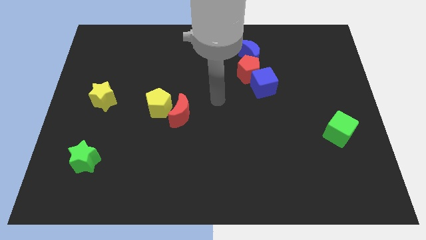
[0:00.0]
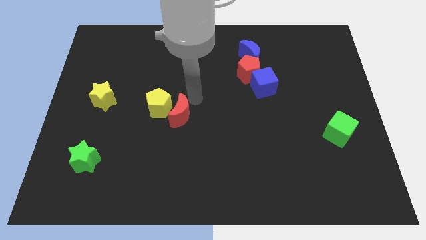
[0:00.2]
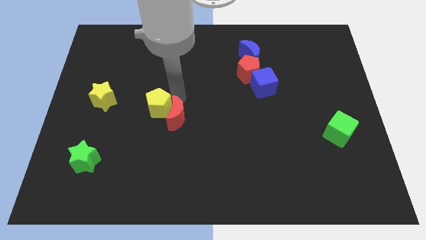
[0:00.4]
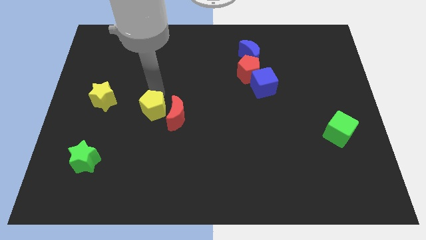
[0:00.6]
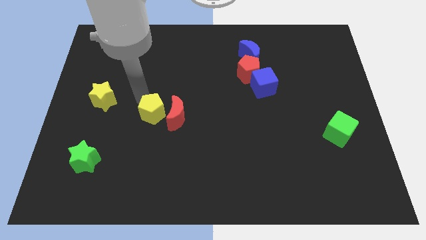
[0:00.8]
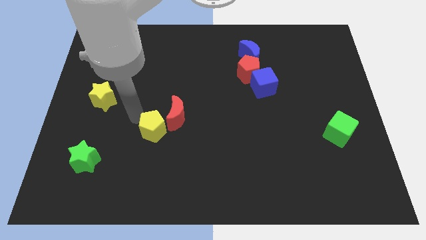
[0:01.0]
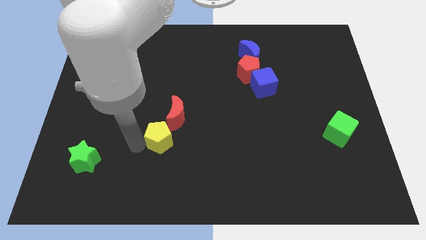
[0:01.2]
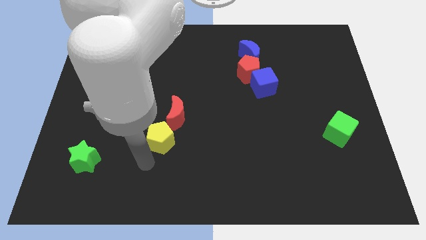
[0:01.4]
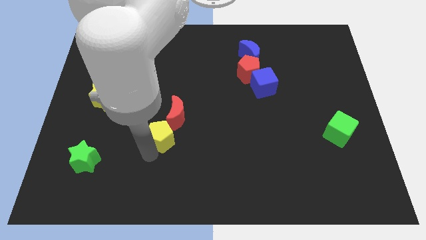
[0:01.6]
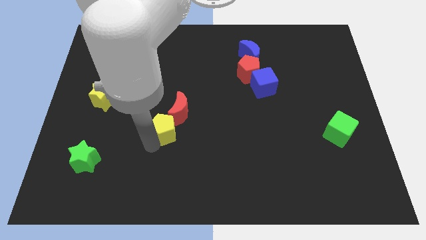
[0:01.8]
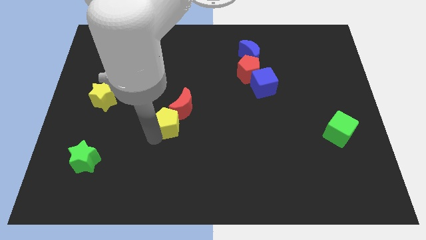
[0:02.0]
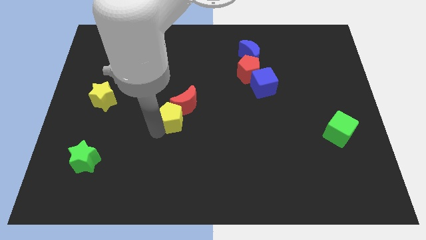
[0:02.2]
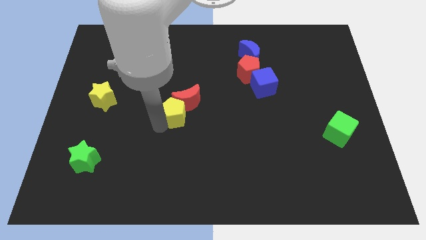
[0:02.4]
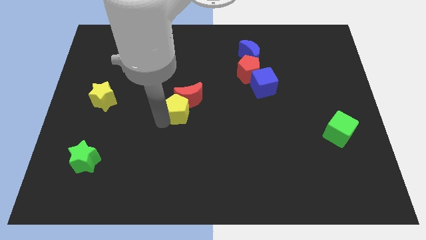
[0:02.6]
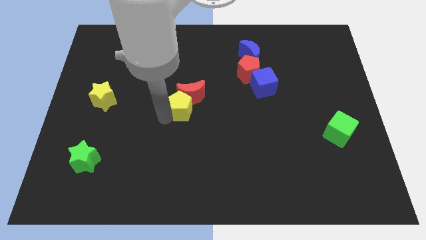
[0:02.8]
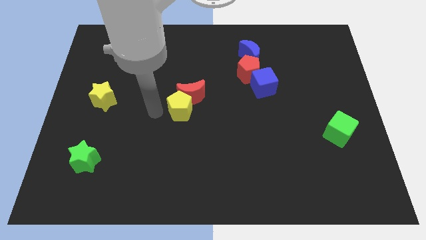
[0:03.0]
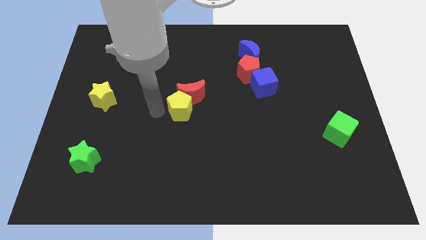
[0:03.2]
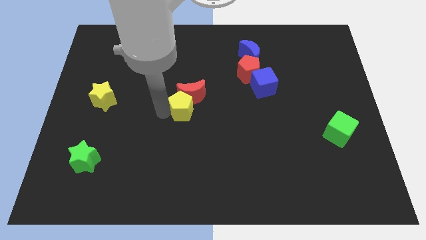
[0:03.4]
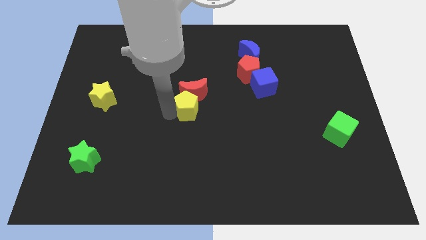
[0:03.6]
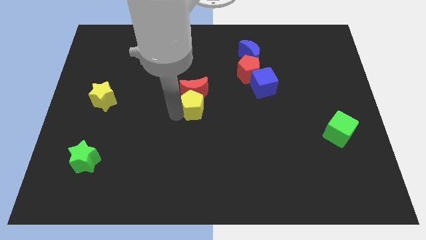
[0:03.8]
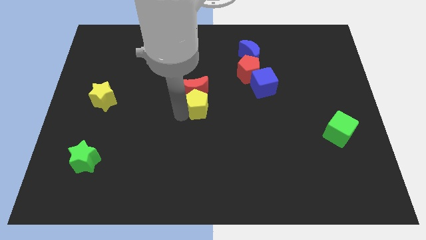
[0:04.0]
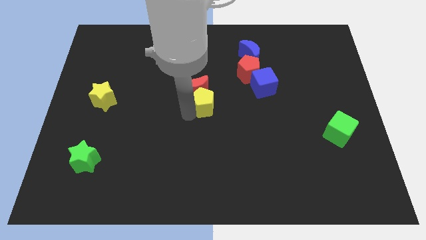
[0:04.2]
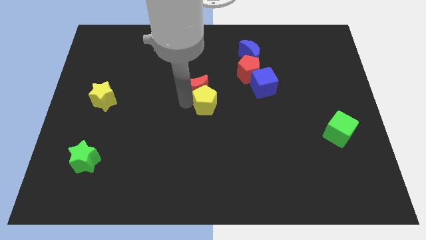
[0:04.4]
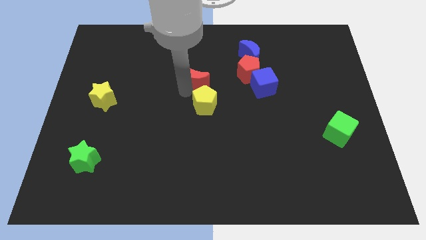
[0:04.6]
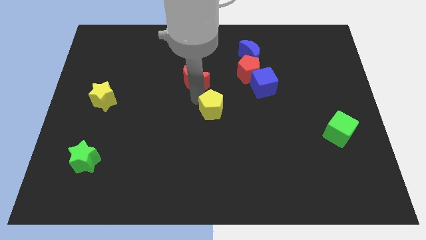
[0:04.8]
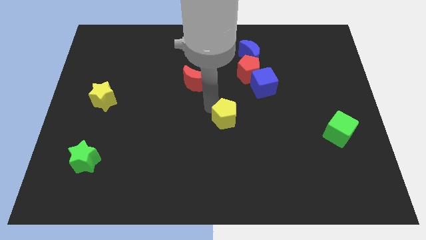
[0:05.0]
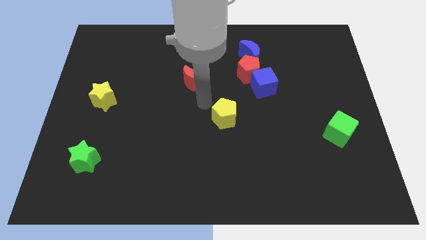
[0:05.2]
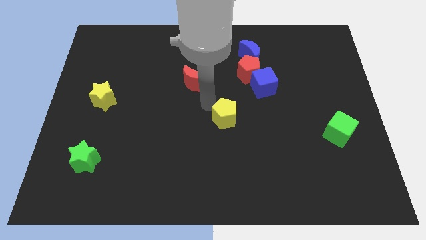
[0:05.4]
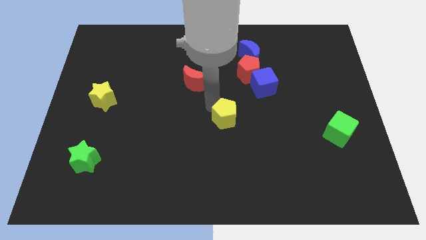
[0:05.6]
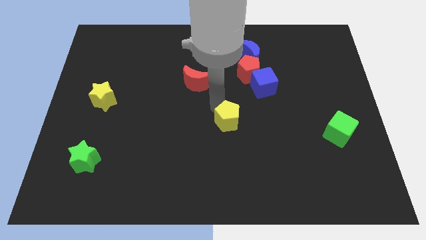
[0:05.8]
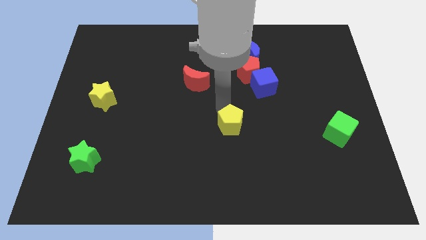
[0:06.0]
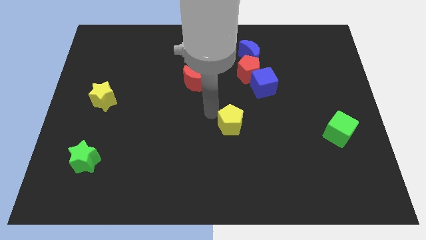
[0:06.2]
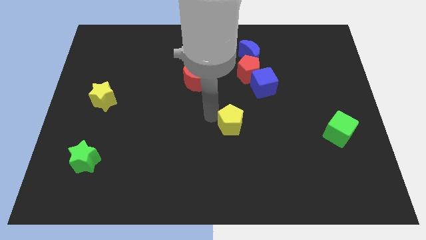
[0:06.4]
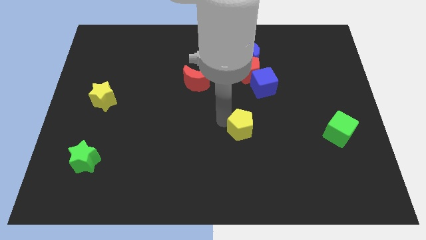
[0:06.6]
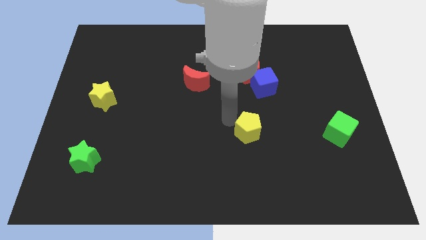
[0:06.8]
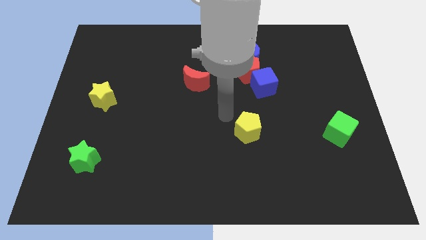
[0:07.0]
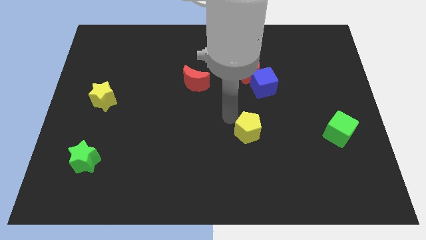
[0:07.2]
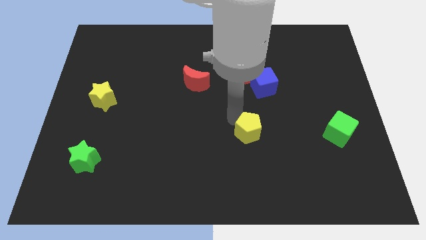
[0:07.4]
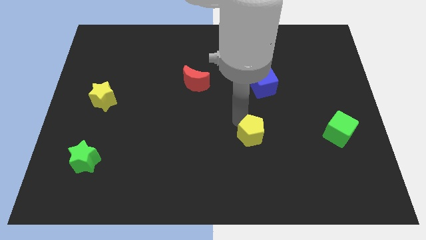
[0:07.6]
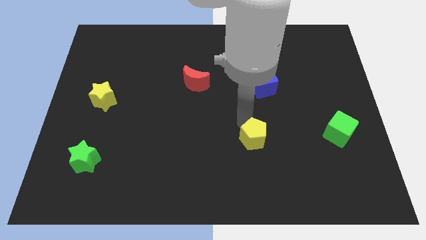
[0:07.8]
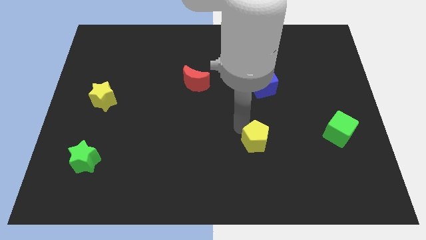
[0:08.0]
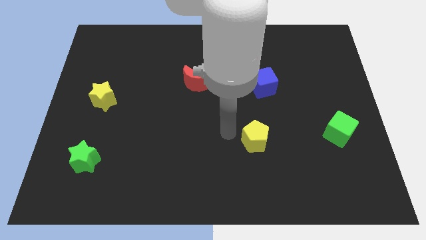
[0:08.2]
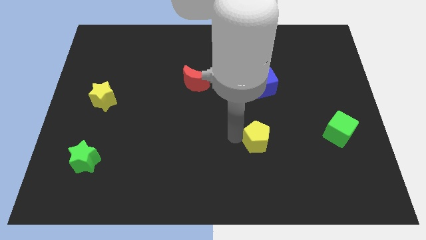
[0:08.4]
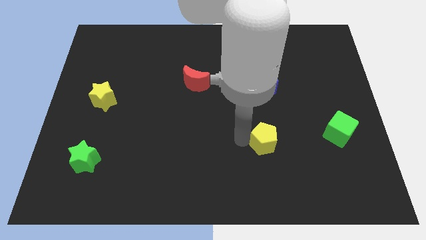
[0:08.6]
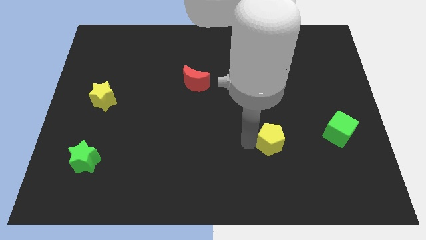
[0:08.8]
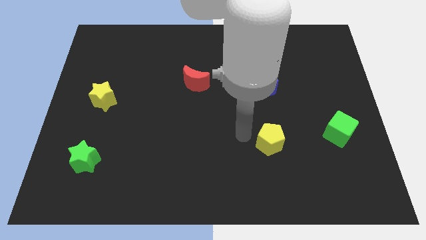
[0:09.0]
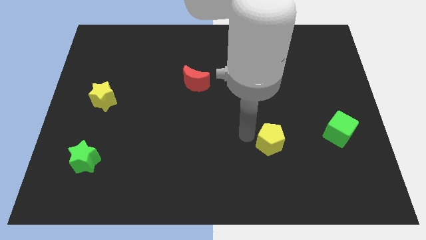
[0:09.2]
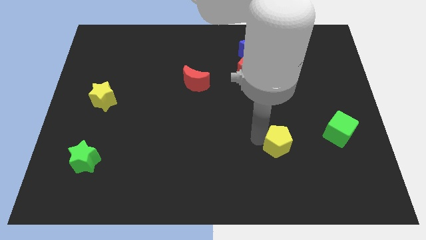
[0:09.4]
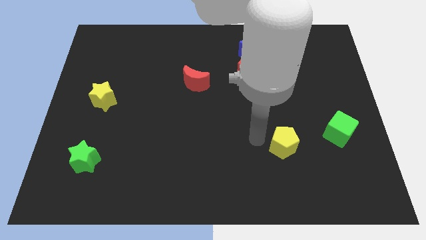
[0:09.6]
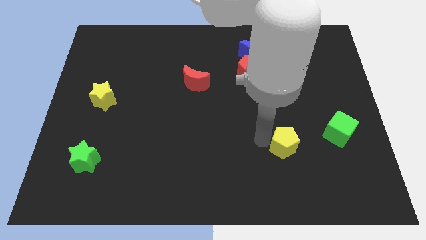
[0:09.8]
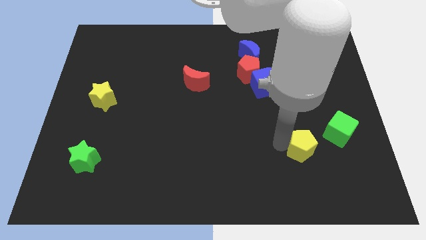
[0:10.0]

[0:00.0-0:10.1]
move the yellow pentagon to the bottom left side of the green cube

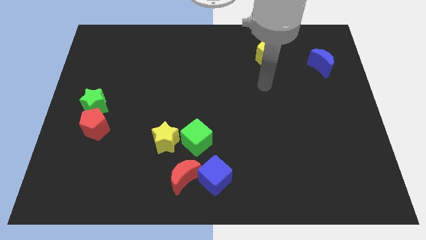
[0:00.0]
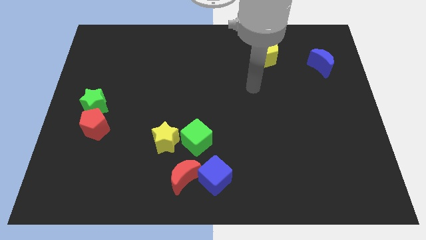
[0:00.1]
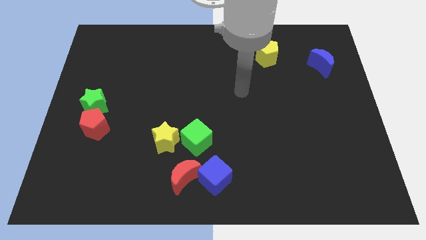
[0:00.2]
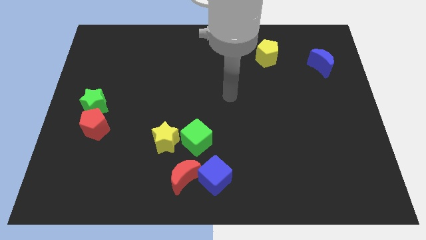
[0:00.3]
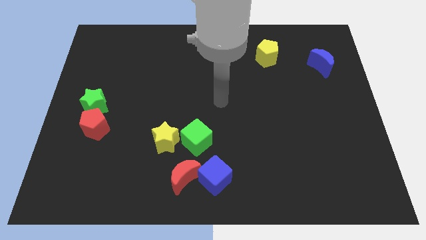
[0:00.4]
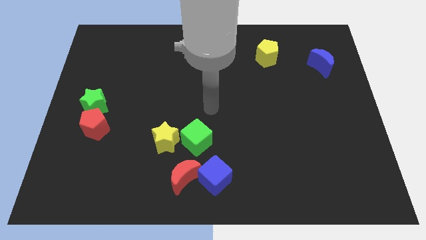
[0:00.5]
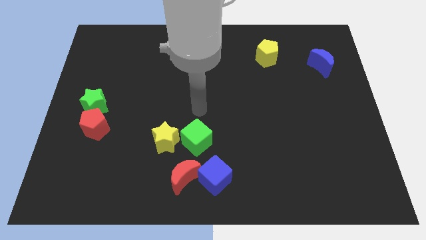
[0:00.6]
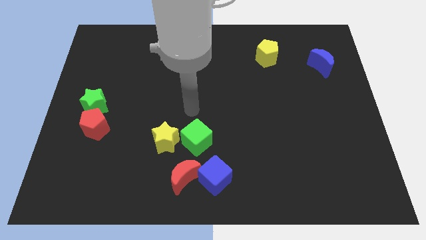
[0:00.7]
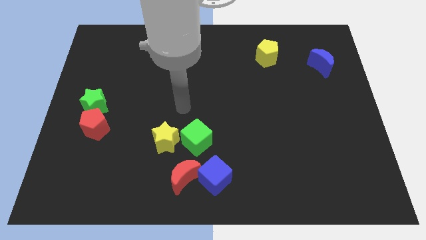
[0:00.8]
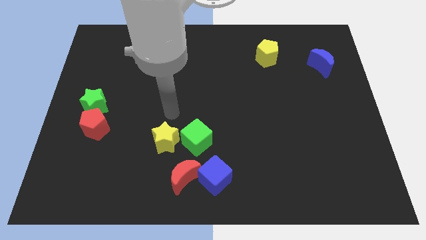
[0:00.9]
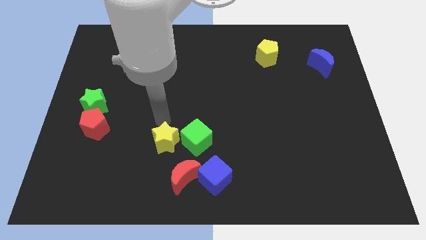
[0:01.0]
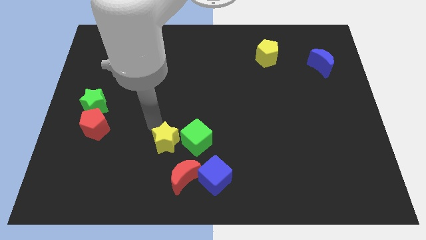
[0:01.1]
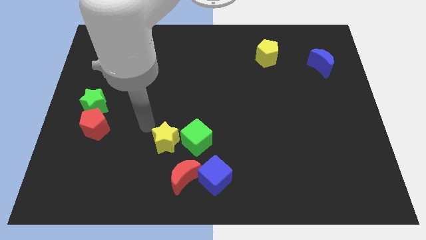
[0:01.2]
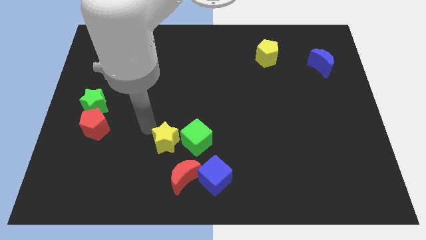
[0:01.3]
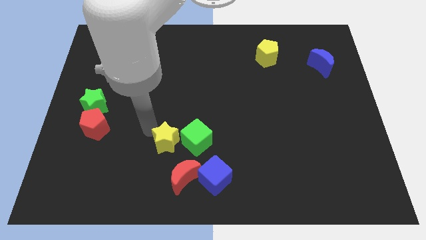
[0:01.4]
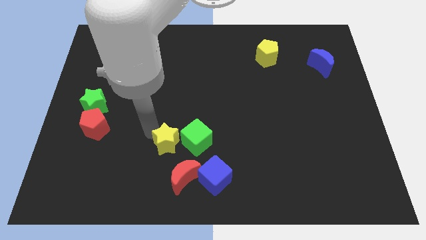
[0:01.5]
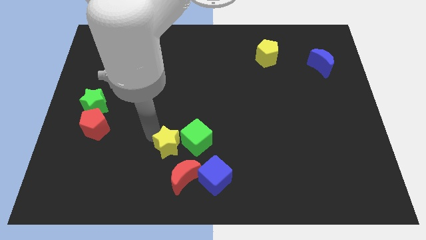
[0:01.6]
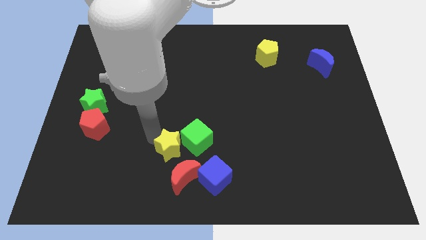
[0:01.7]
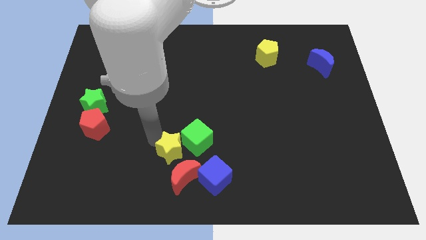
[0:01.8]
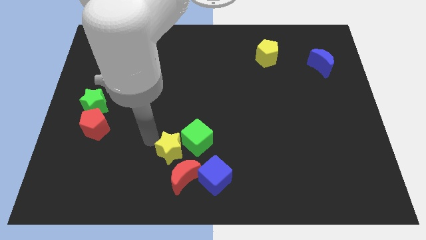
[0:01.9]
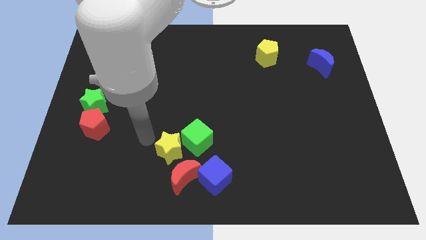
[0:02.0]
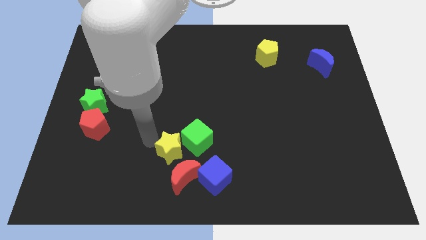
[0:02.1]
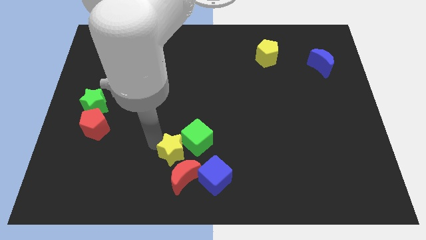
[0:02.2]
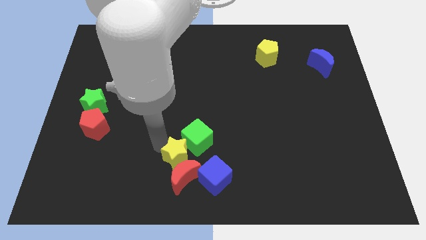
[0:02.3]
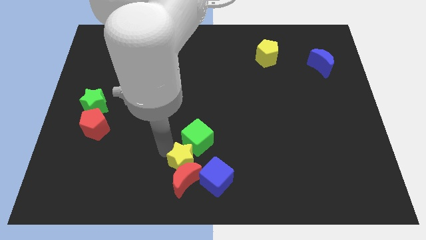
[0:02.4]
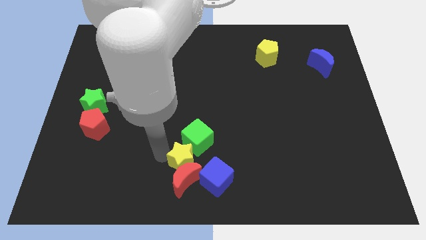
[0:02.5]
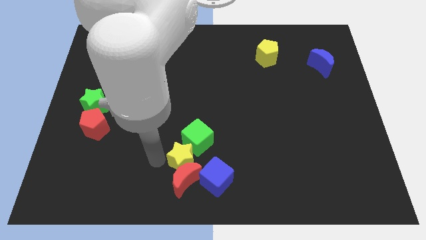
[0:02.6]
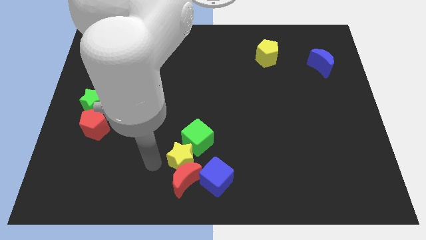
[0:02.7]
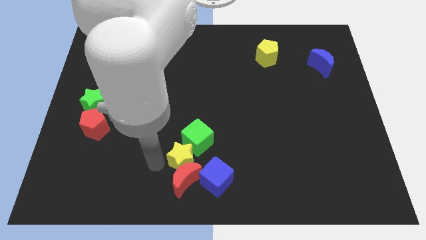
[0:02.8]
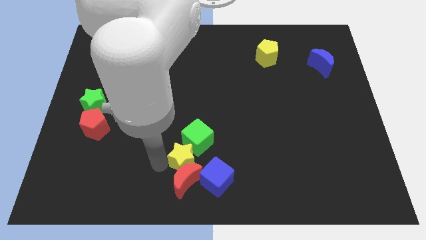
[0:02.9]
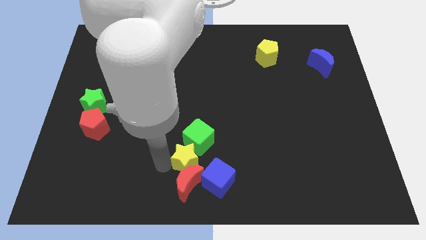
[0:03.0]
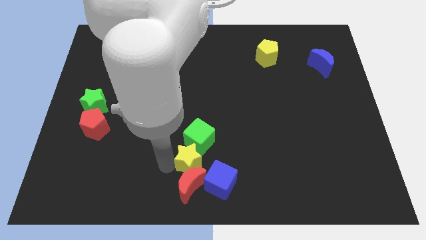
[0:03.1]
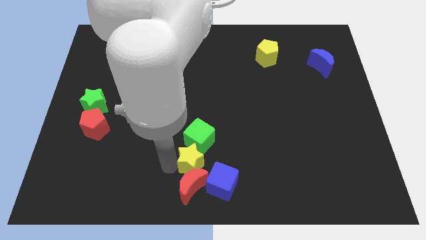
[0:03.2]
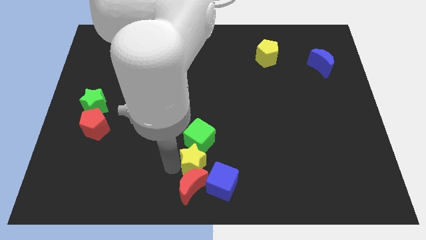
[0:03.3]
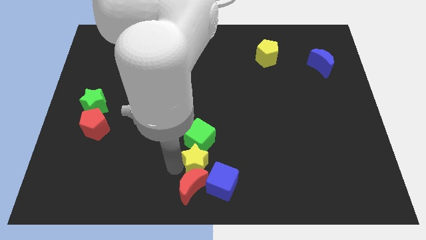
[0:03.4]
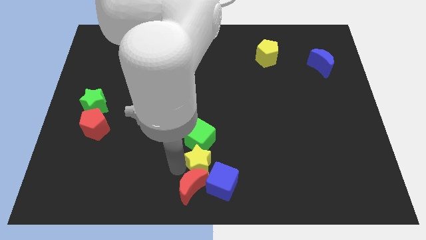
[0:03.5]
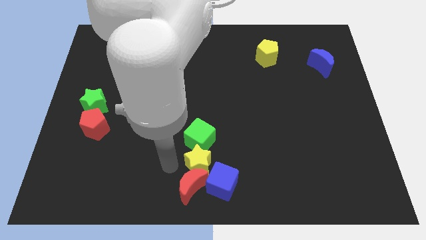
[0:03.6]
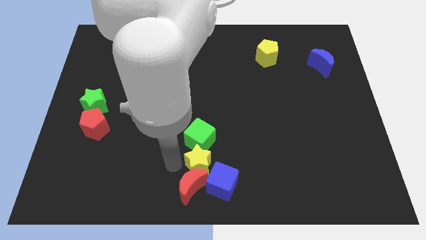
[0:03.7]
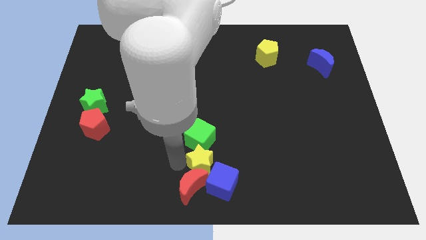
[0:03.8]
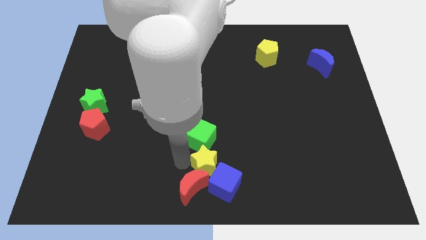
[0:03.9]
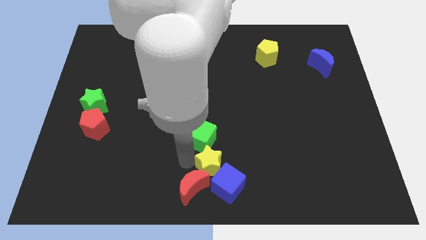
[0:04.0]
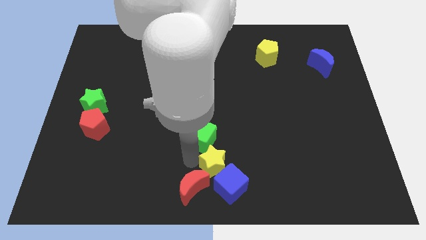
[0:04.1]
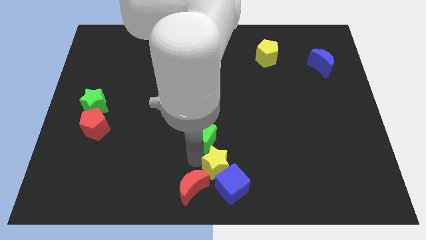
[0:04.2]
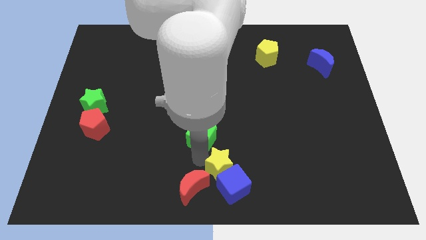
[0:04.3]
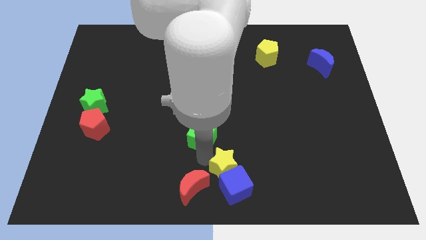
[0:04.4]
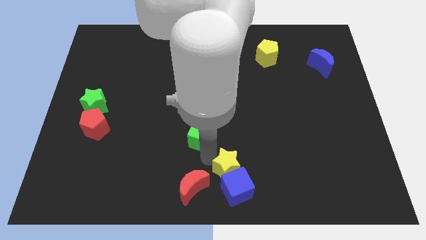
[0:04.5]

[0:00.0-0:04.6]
push the yellow star to the top right side of the blue cube
